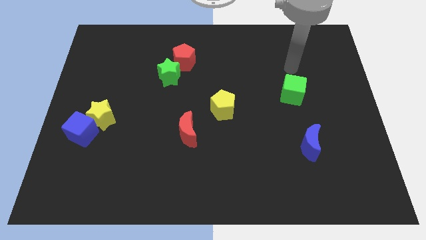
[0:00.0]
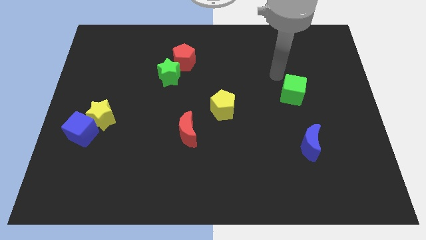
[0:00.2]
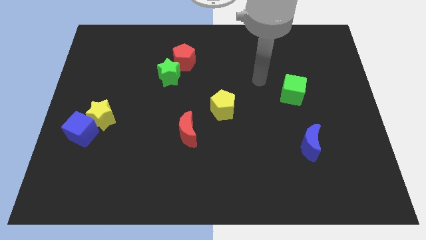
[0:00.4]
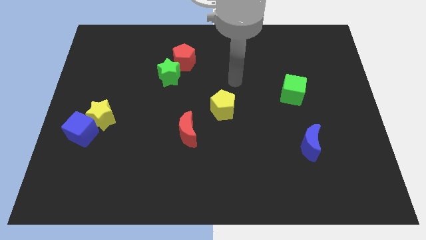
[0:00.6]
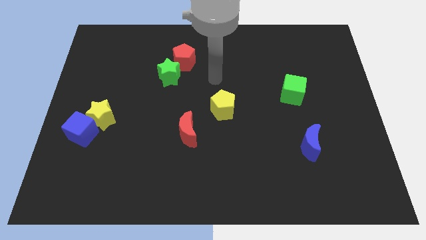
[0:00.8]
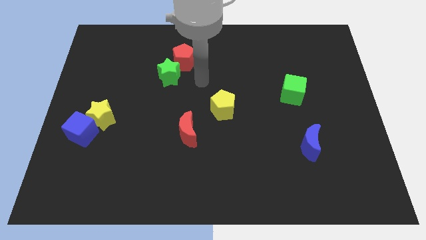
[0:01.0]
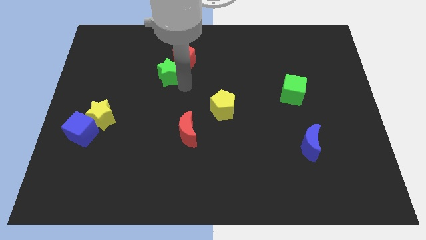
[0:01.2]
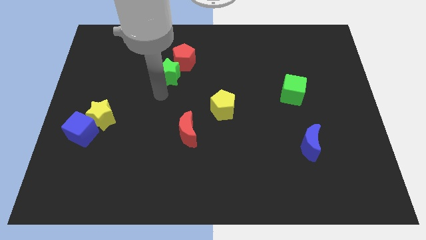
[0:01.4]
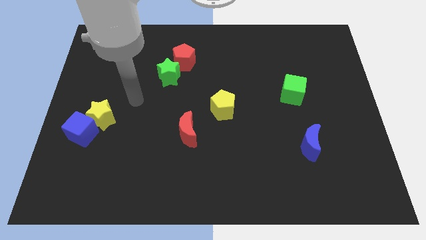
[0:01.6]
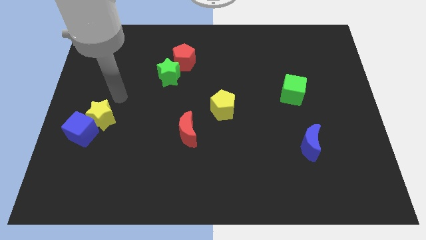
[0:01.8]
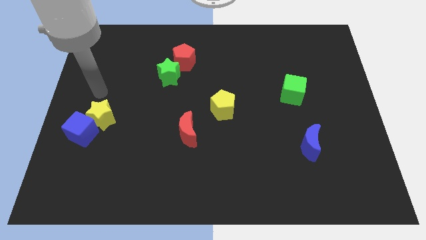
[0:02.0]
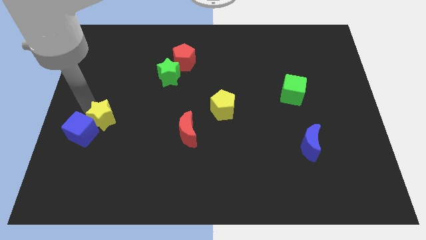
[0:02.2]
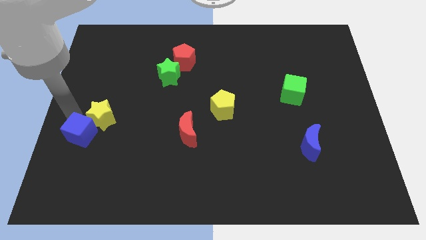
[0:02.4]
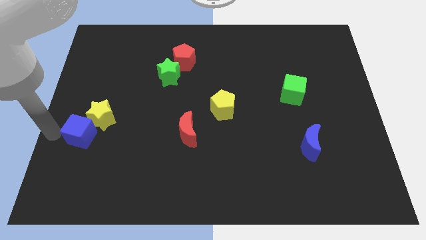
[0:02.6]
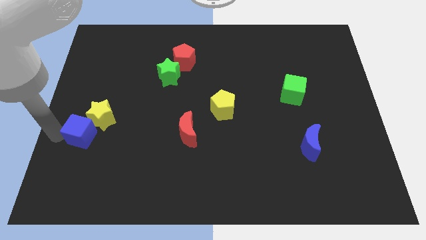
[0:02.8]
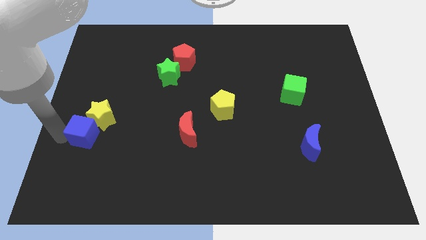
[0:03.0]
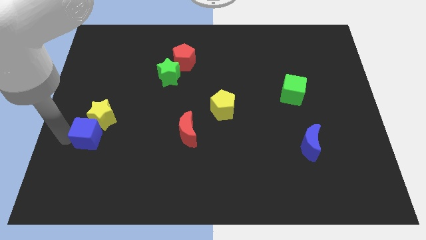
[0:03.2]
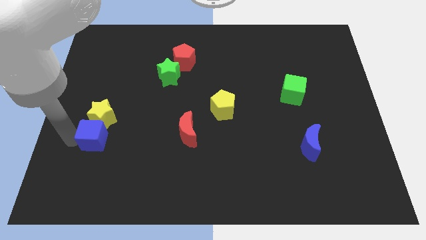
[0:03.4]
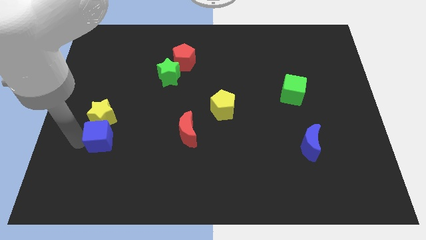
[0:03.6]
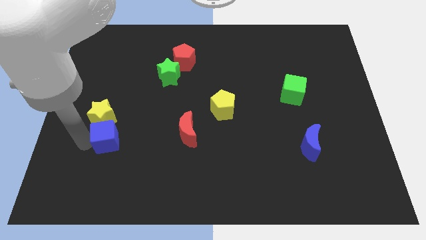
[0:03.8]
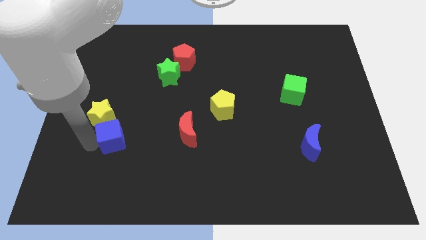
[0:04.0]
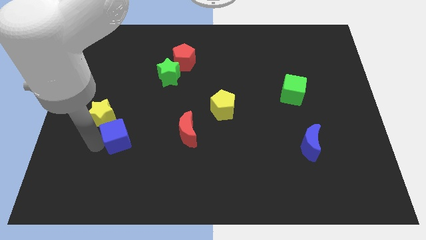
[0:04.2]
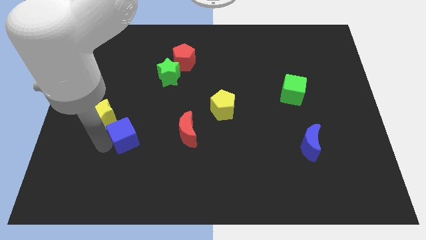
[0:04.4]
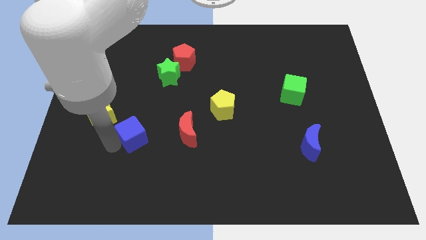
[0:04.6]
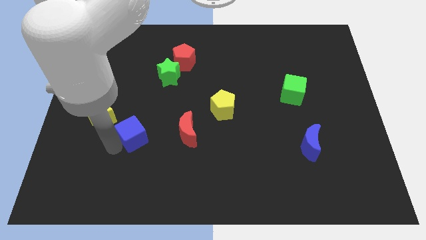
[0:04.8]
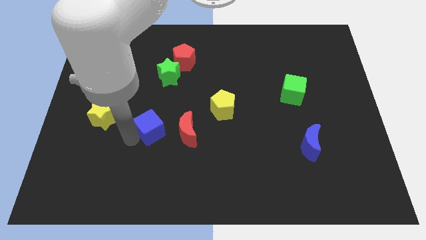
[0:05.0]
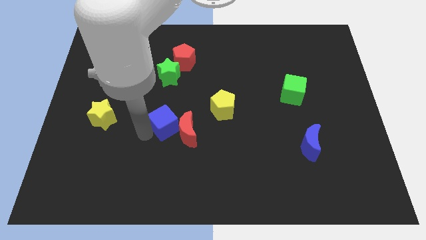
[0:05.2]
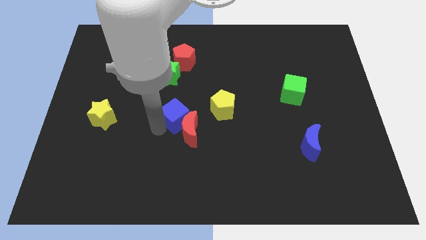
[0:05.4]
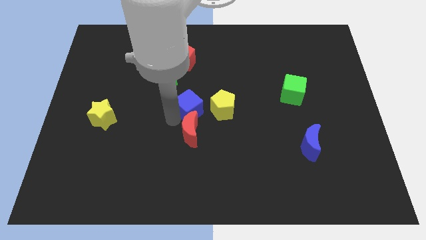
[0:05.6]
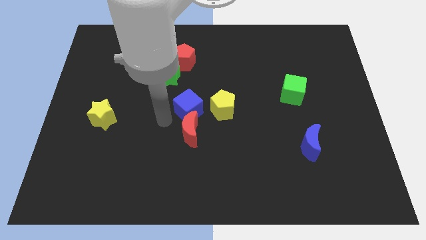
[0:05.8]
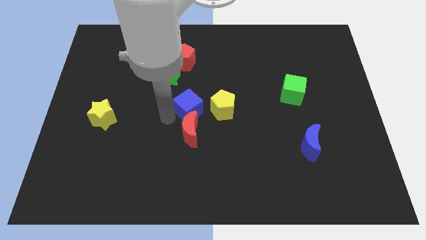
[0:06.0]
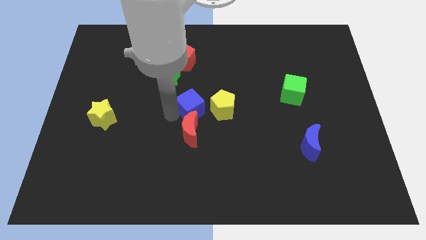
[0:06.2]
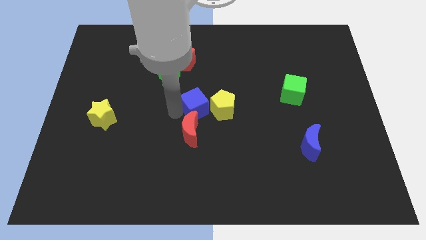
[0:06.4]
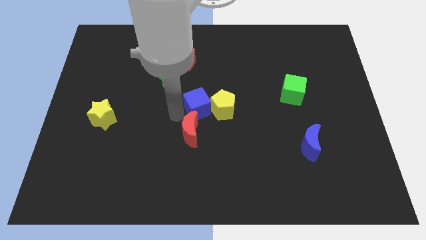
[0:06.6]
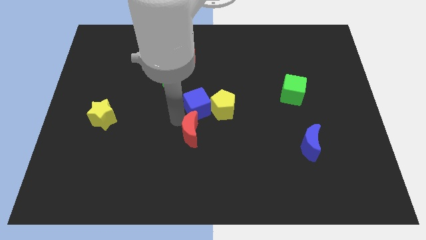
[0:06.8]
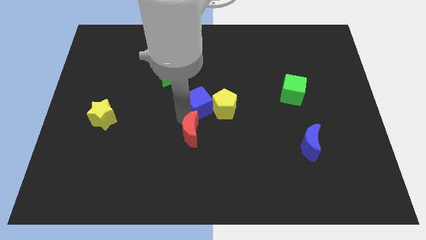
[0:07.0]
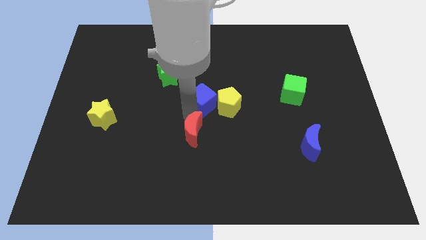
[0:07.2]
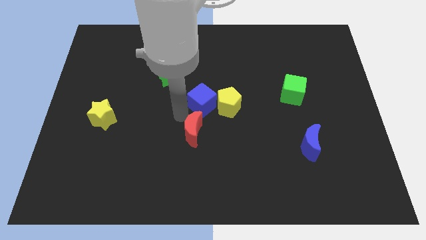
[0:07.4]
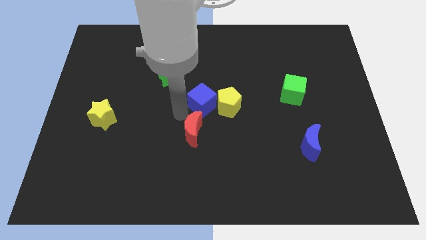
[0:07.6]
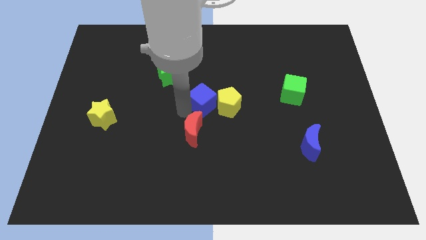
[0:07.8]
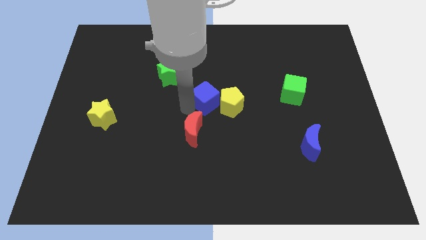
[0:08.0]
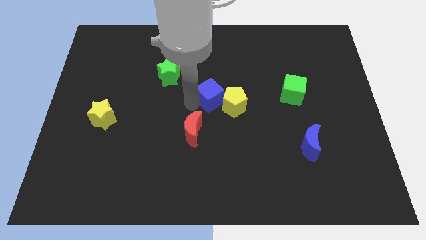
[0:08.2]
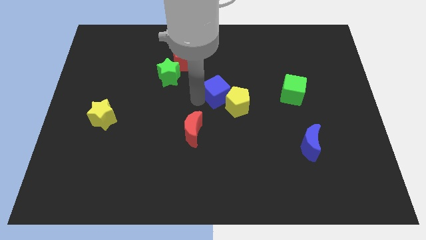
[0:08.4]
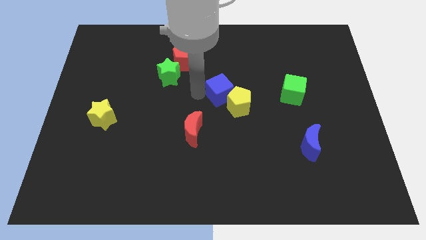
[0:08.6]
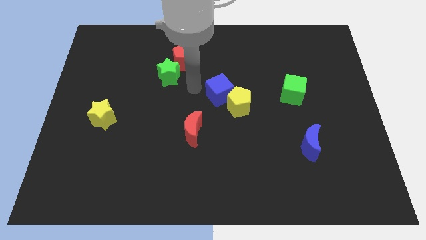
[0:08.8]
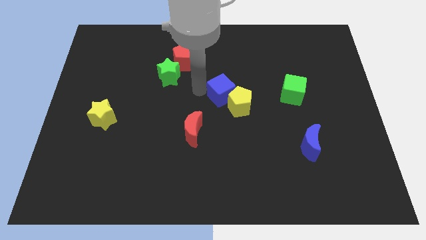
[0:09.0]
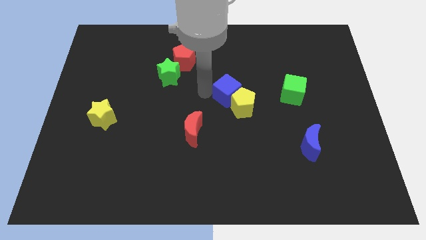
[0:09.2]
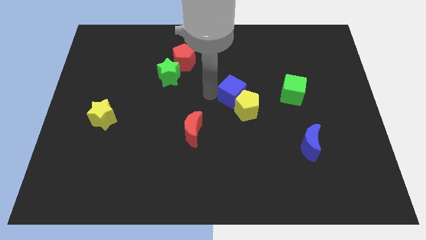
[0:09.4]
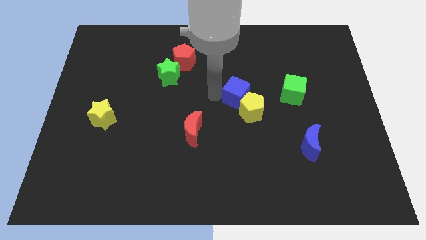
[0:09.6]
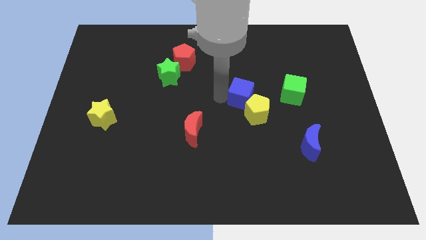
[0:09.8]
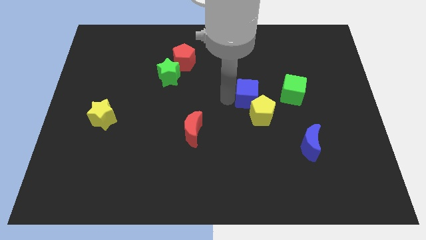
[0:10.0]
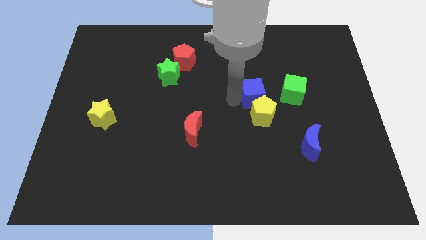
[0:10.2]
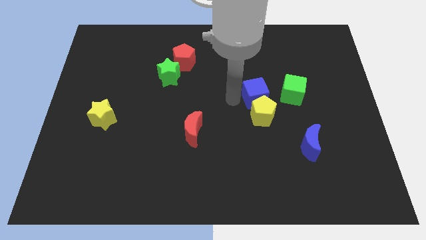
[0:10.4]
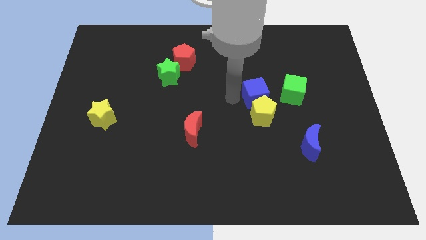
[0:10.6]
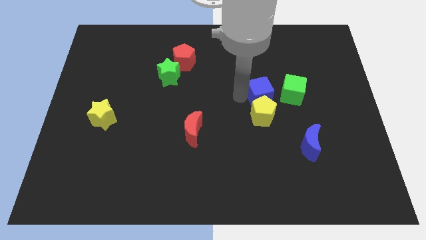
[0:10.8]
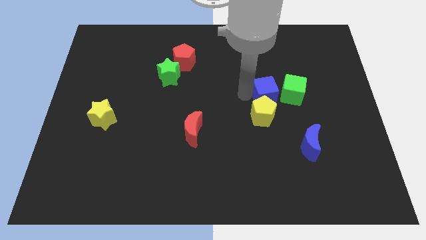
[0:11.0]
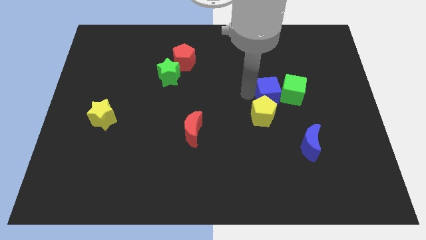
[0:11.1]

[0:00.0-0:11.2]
put the blue cube next to the green cube

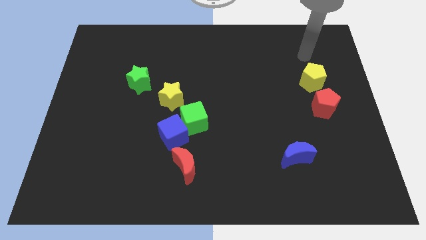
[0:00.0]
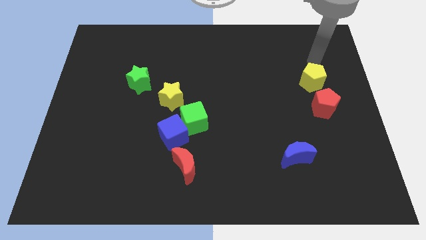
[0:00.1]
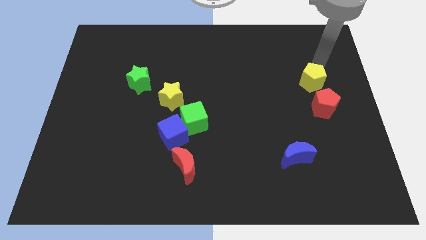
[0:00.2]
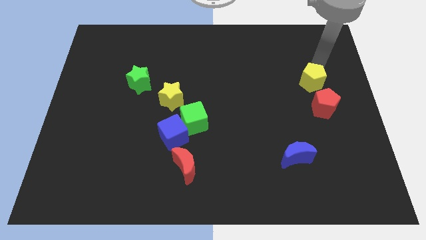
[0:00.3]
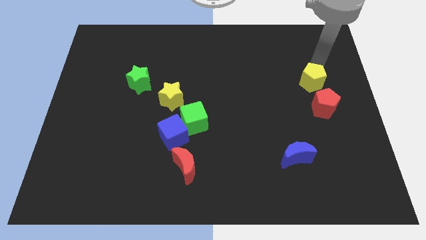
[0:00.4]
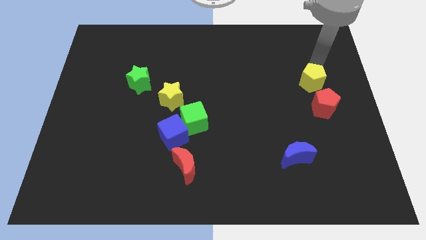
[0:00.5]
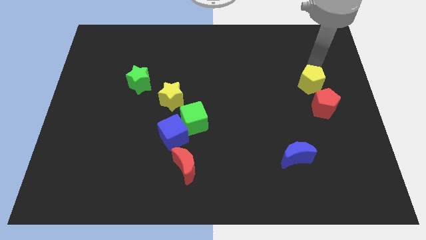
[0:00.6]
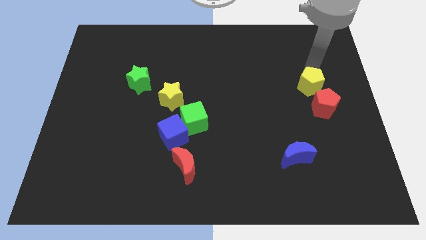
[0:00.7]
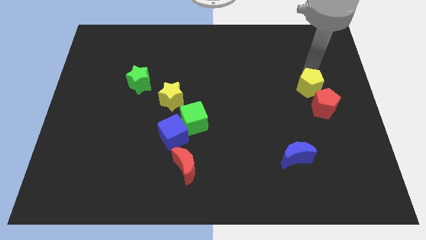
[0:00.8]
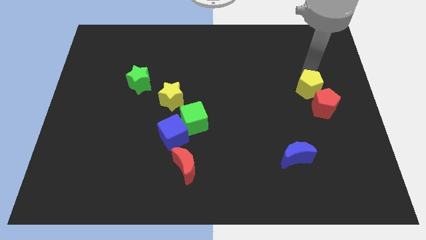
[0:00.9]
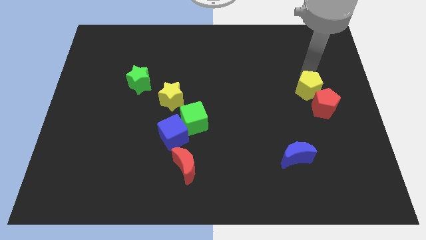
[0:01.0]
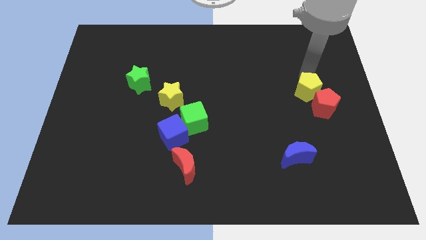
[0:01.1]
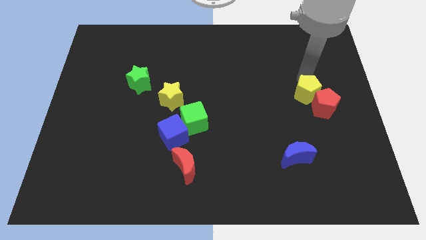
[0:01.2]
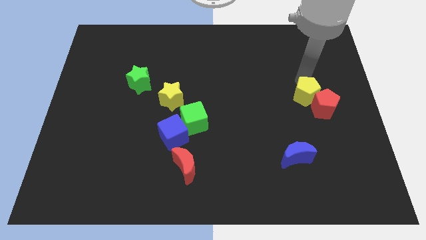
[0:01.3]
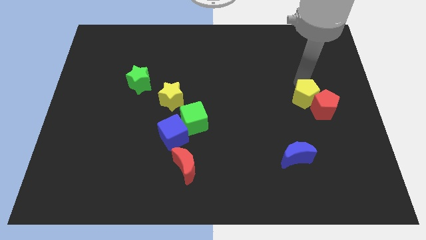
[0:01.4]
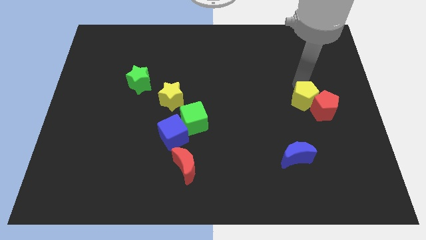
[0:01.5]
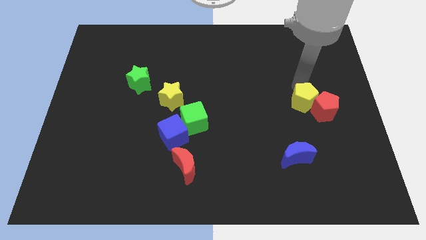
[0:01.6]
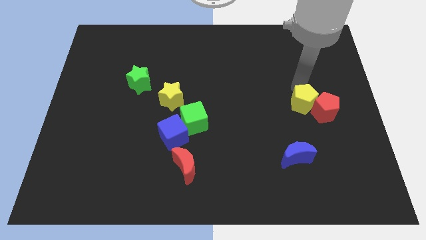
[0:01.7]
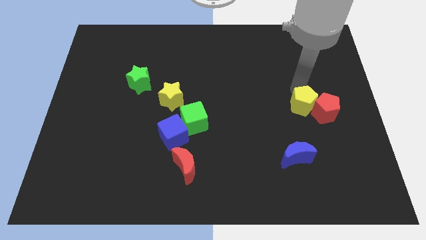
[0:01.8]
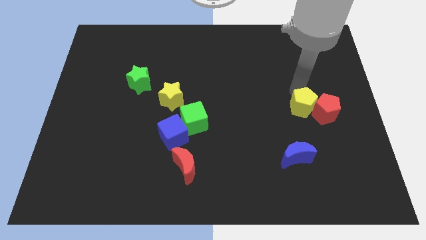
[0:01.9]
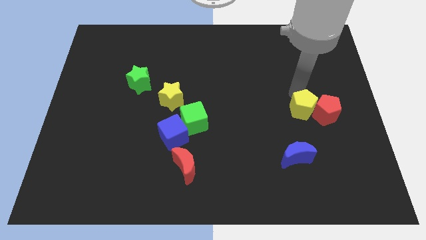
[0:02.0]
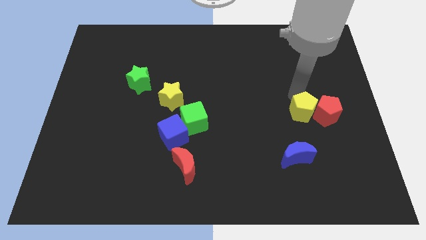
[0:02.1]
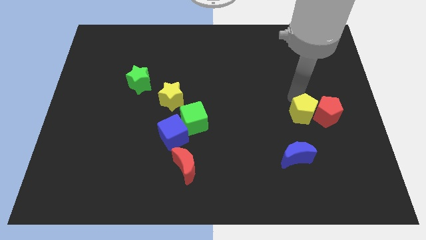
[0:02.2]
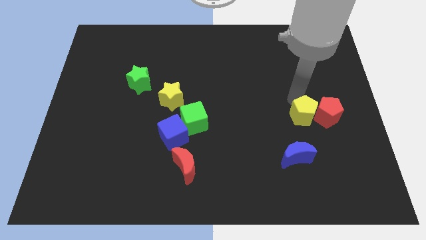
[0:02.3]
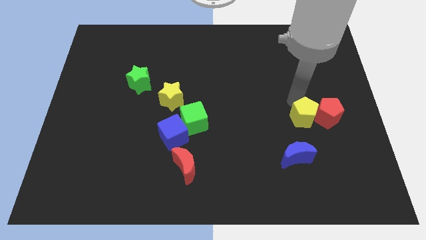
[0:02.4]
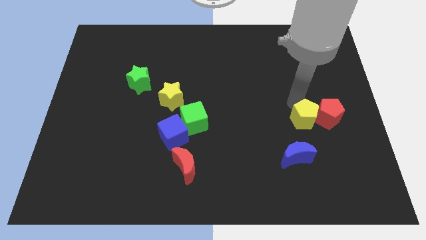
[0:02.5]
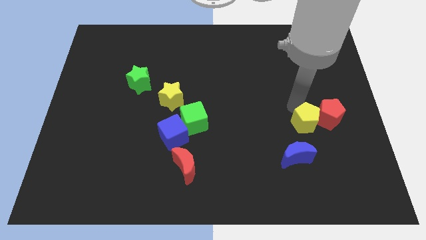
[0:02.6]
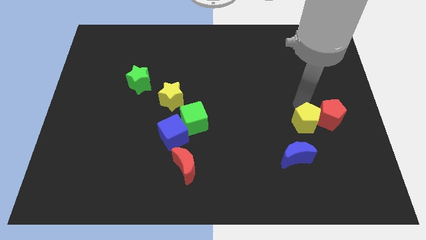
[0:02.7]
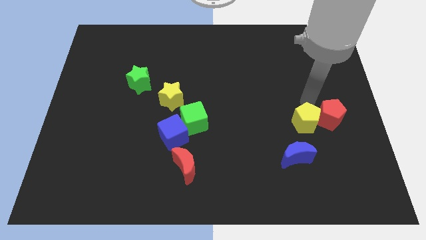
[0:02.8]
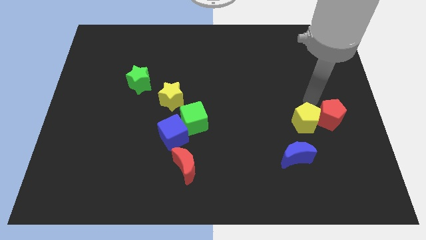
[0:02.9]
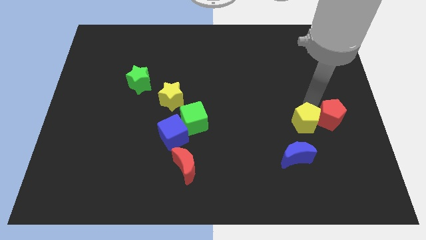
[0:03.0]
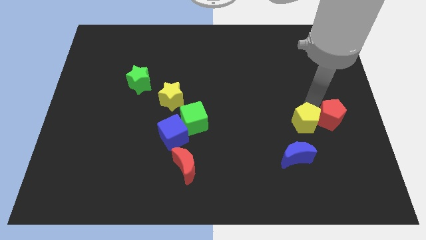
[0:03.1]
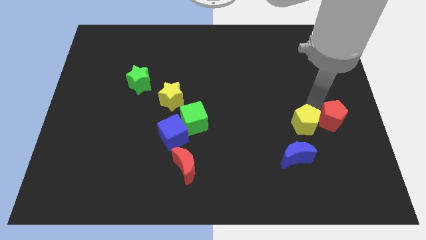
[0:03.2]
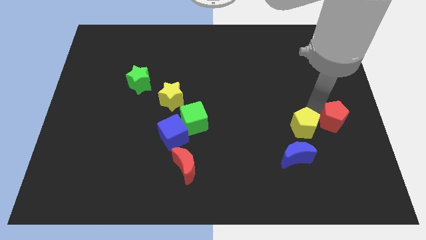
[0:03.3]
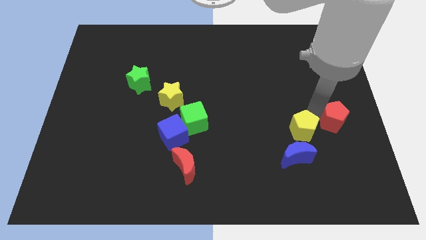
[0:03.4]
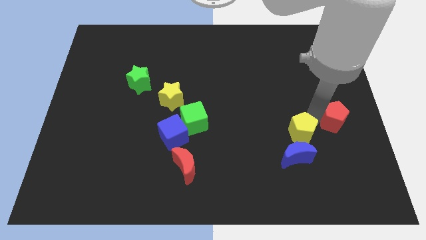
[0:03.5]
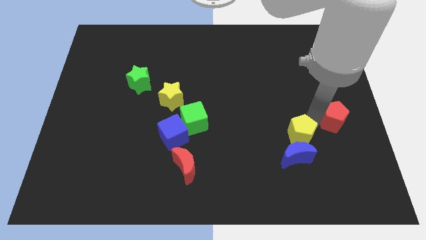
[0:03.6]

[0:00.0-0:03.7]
put the yellow pentagon close to the blue moon
